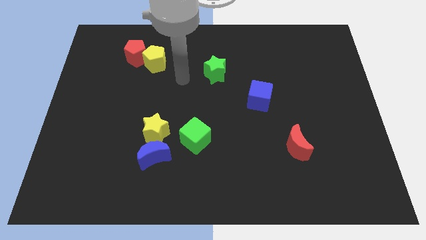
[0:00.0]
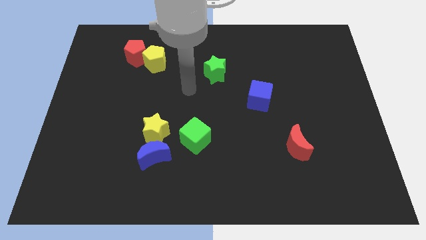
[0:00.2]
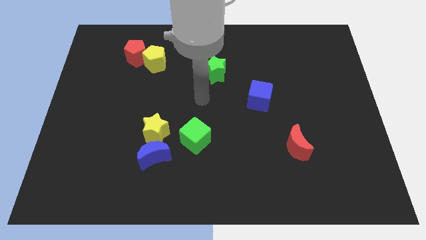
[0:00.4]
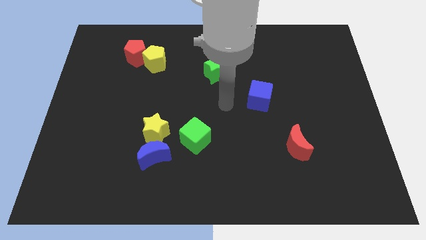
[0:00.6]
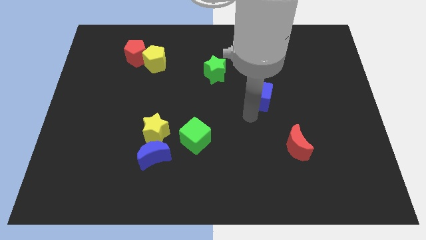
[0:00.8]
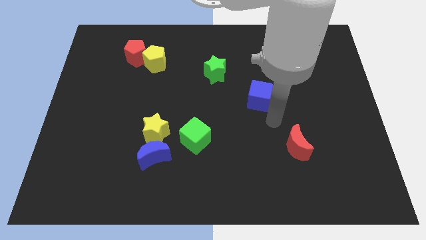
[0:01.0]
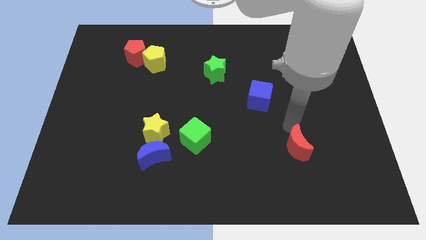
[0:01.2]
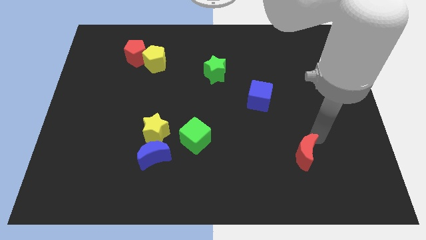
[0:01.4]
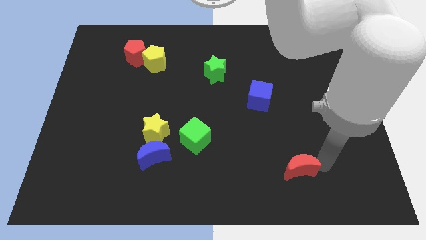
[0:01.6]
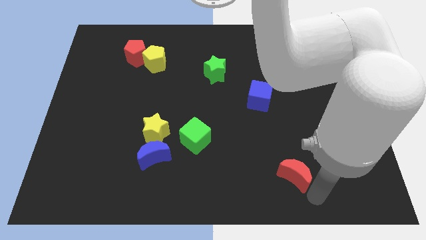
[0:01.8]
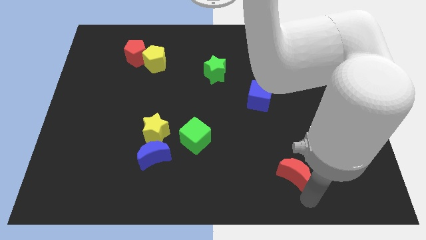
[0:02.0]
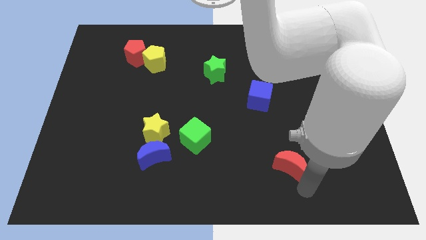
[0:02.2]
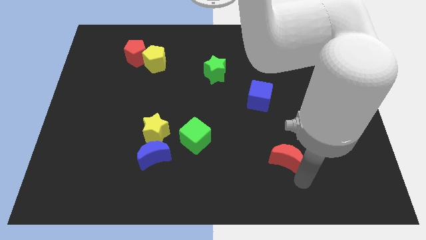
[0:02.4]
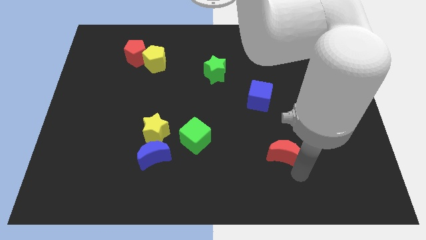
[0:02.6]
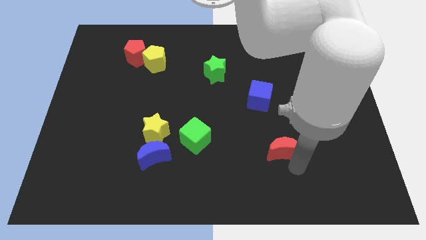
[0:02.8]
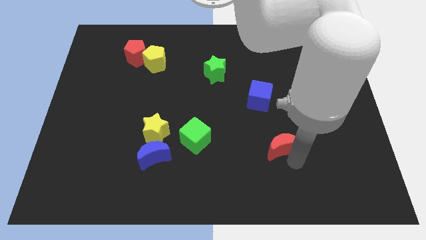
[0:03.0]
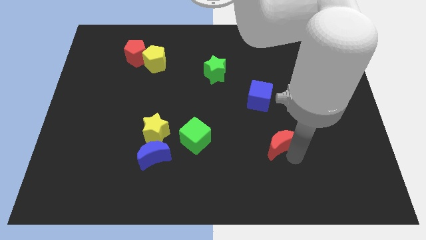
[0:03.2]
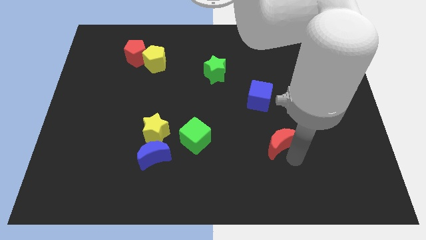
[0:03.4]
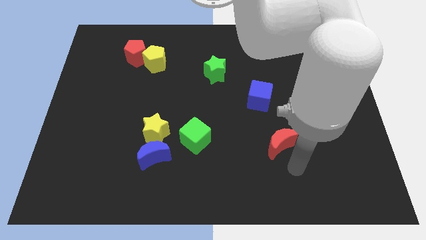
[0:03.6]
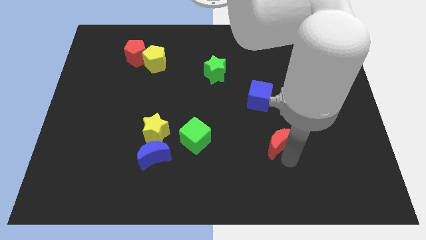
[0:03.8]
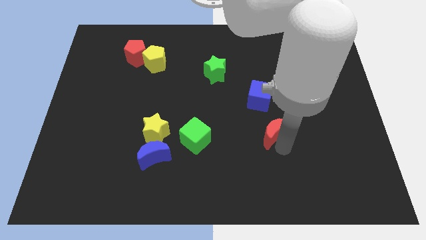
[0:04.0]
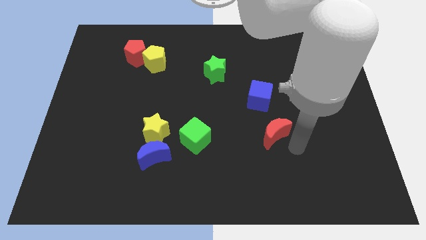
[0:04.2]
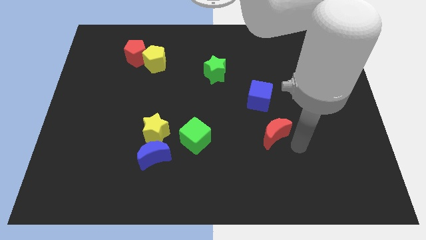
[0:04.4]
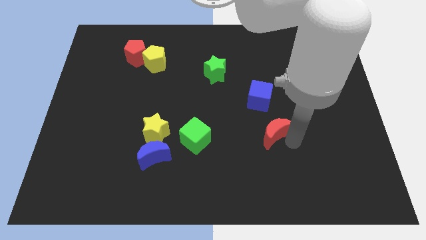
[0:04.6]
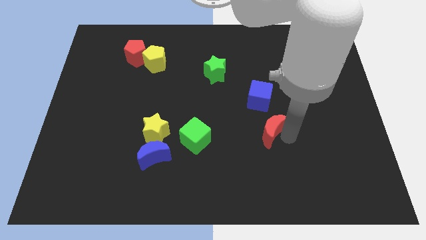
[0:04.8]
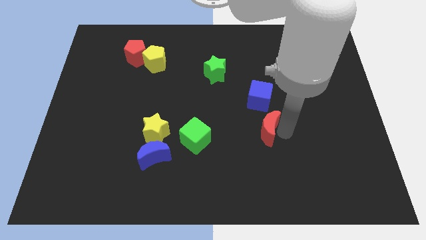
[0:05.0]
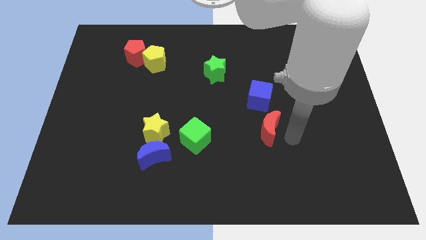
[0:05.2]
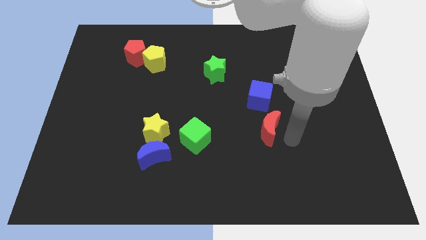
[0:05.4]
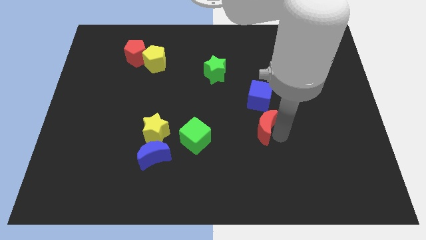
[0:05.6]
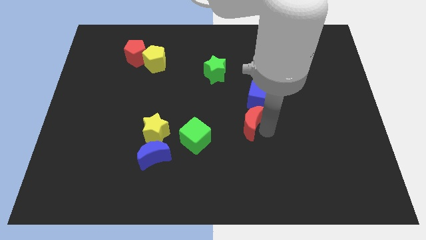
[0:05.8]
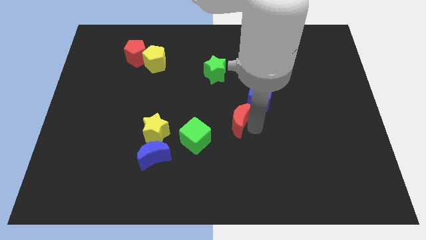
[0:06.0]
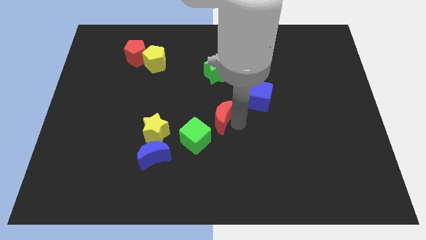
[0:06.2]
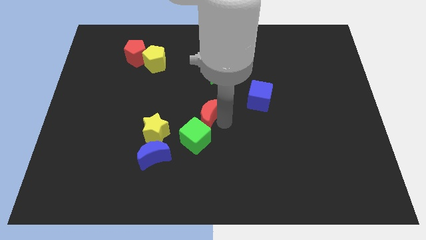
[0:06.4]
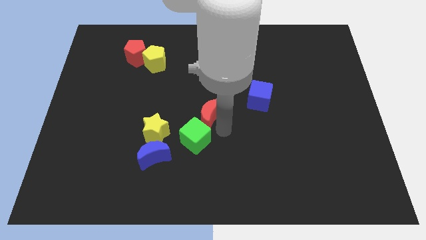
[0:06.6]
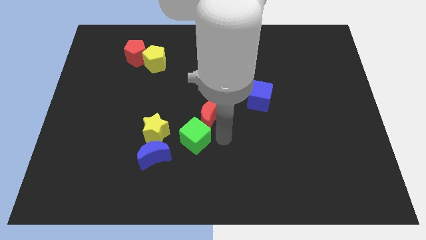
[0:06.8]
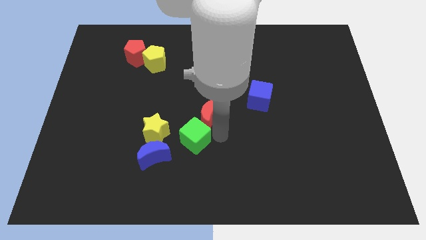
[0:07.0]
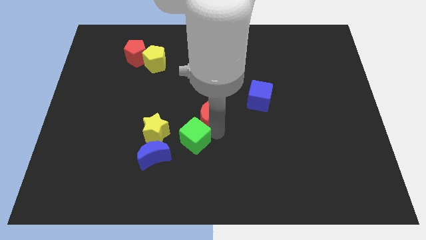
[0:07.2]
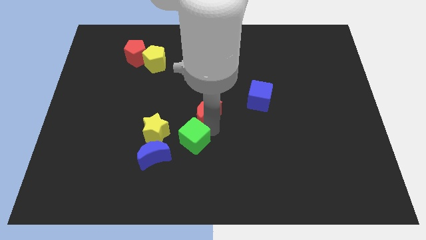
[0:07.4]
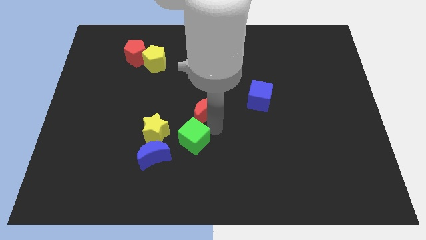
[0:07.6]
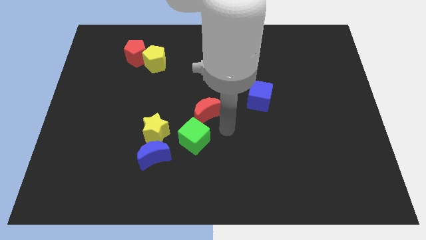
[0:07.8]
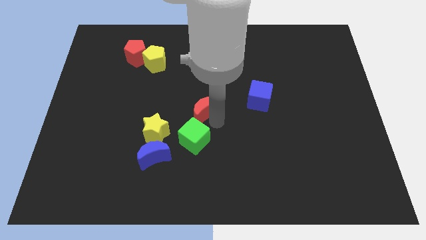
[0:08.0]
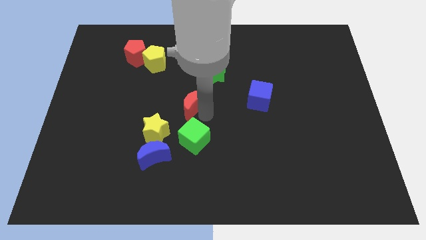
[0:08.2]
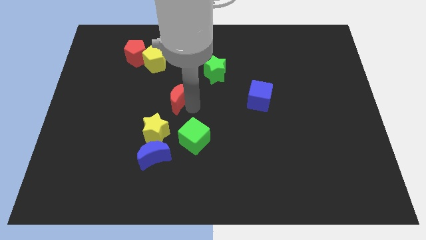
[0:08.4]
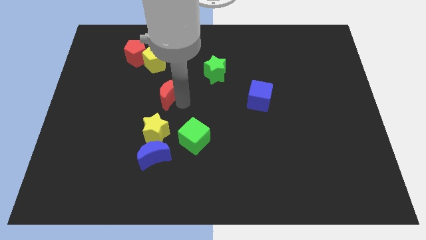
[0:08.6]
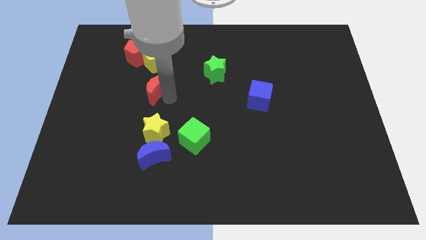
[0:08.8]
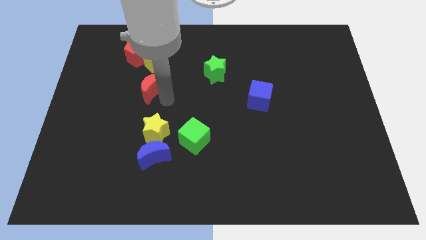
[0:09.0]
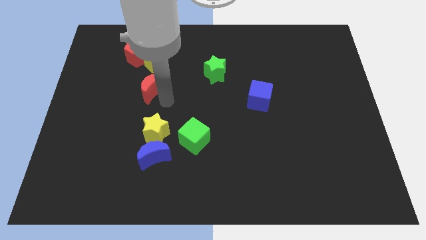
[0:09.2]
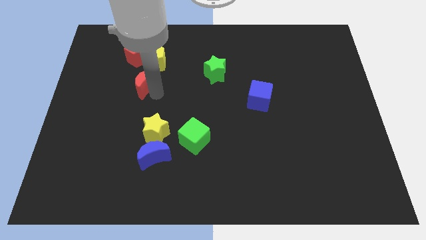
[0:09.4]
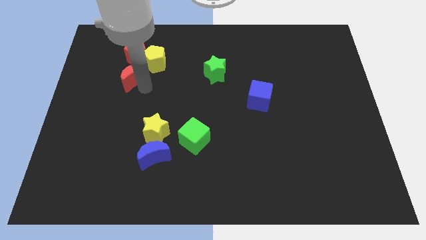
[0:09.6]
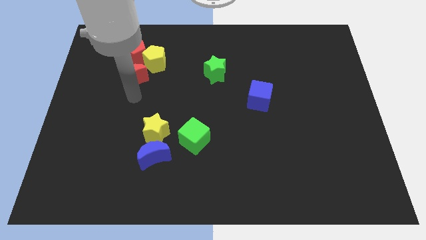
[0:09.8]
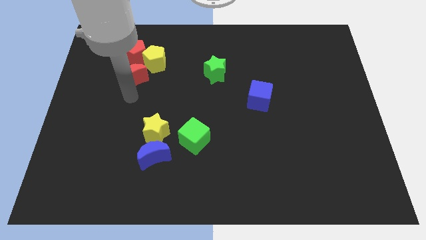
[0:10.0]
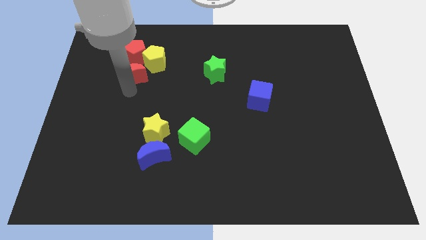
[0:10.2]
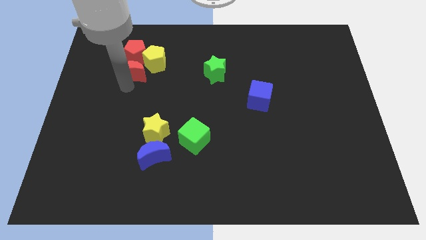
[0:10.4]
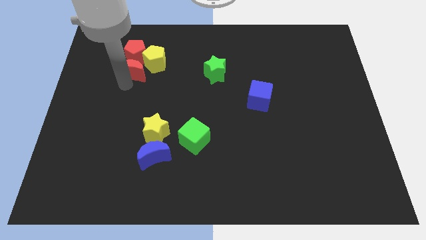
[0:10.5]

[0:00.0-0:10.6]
push the red moon next to the red pentagon

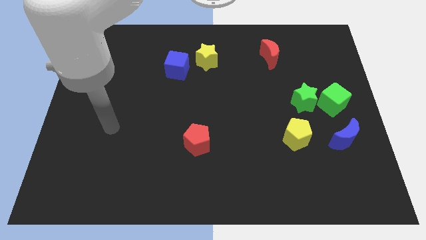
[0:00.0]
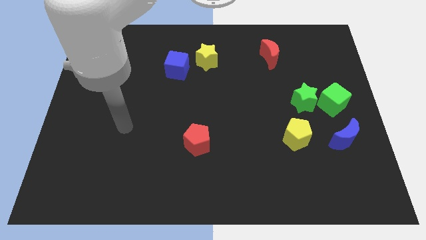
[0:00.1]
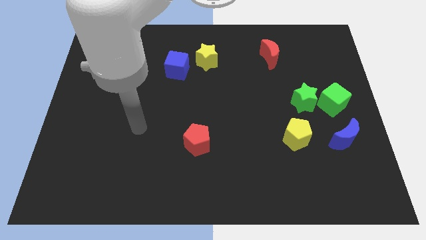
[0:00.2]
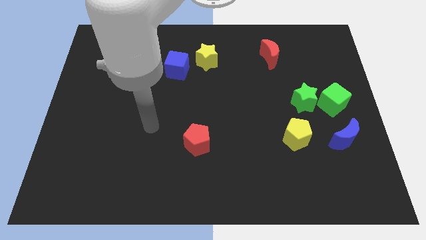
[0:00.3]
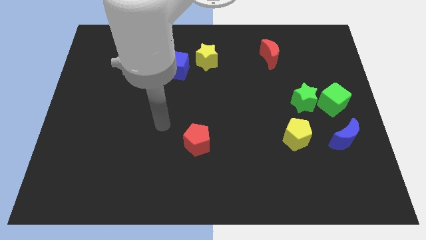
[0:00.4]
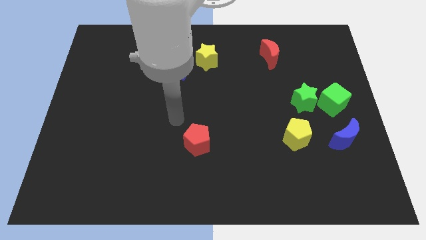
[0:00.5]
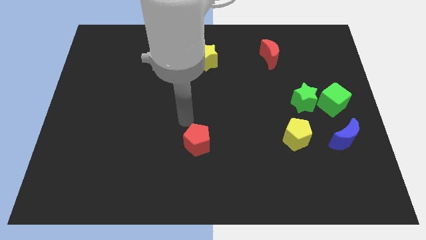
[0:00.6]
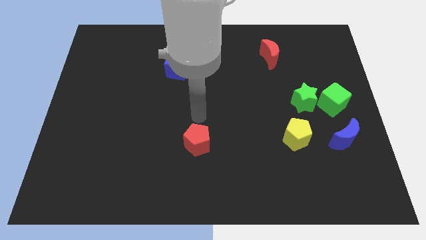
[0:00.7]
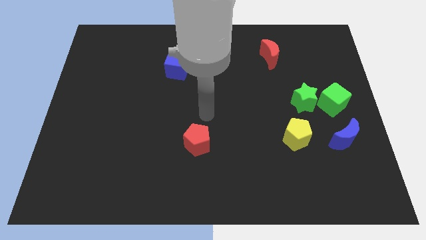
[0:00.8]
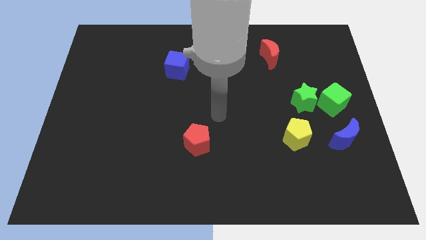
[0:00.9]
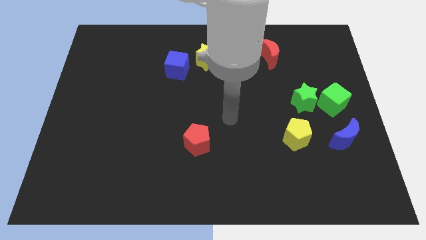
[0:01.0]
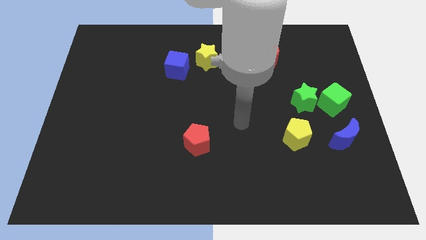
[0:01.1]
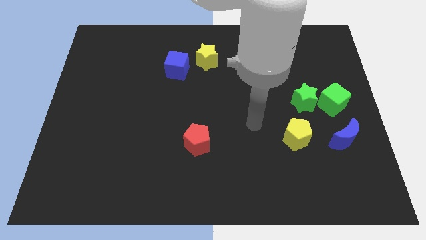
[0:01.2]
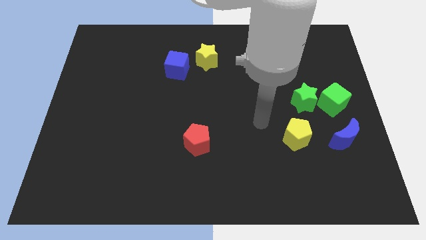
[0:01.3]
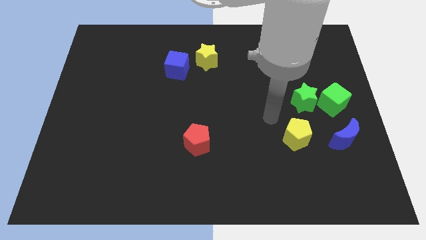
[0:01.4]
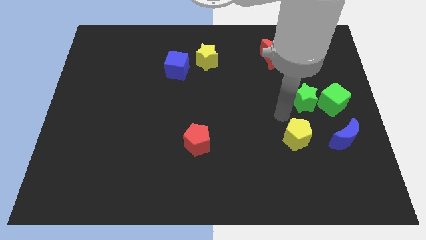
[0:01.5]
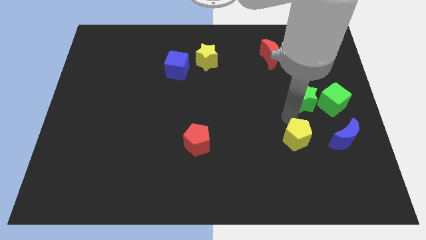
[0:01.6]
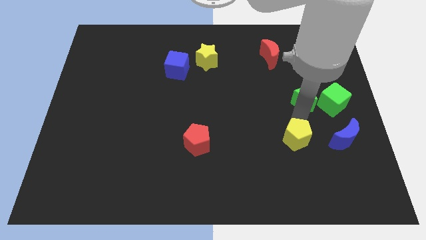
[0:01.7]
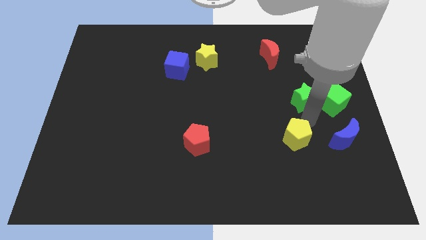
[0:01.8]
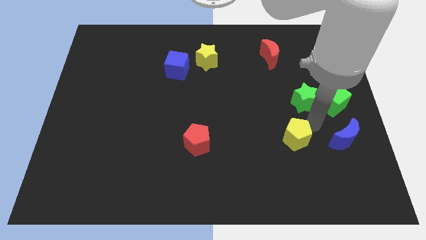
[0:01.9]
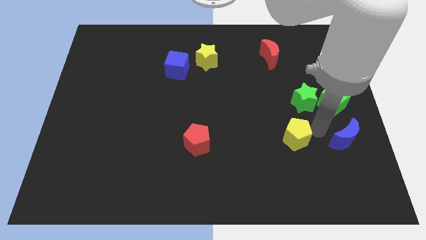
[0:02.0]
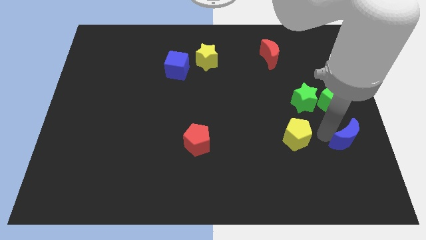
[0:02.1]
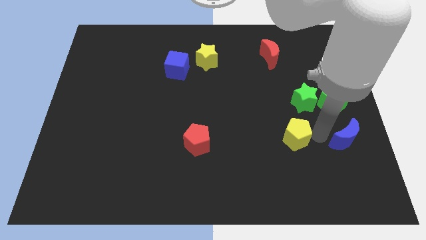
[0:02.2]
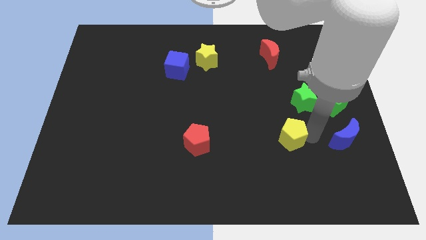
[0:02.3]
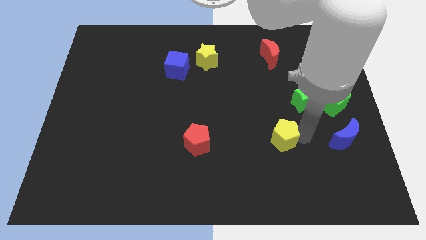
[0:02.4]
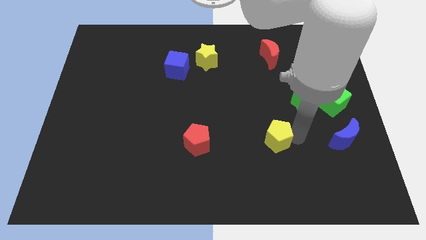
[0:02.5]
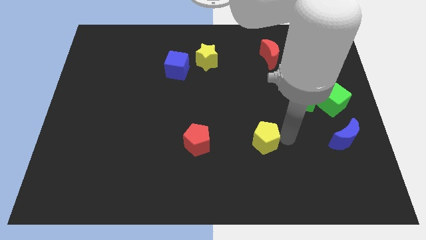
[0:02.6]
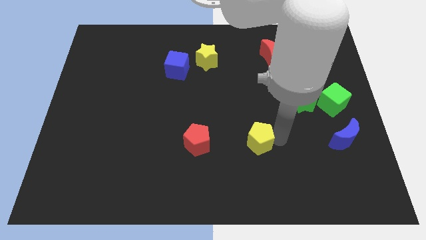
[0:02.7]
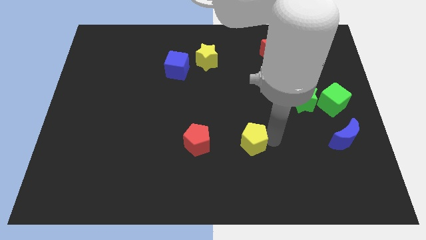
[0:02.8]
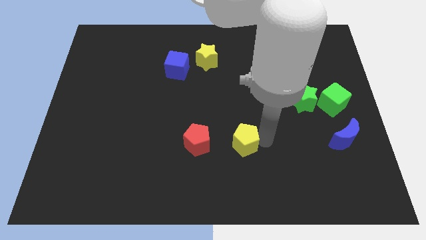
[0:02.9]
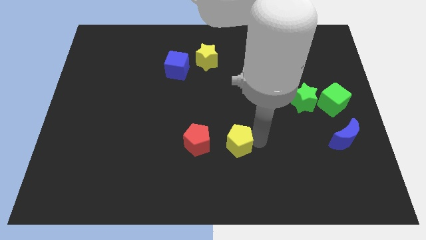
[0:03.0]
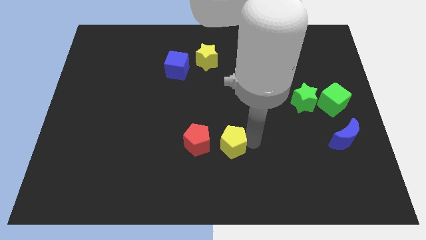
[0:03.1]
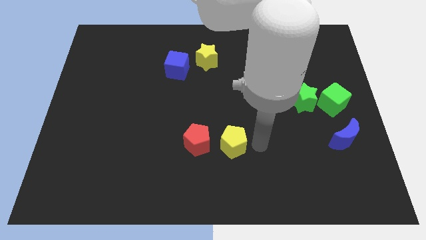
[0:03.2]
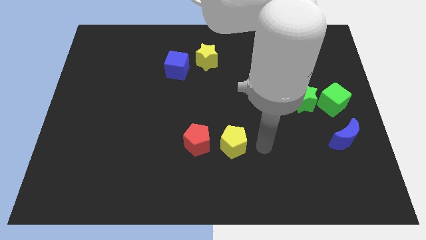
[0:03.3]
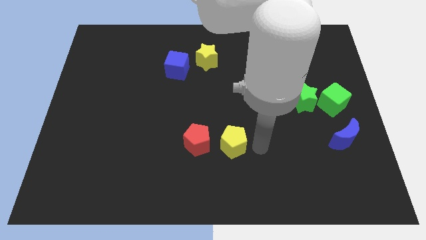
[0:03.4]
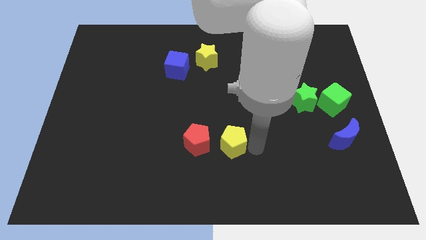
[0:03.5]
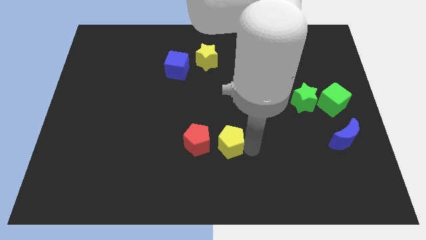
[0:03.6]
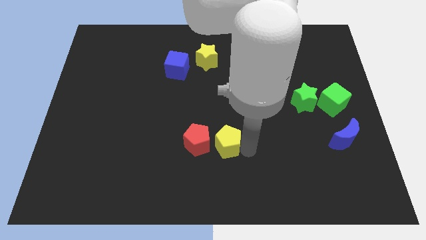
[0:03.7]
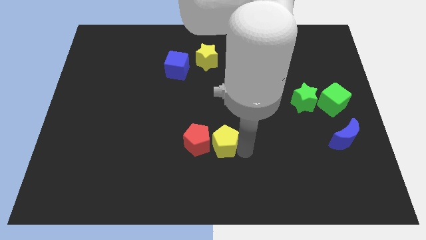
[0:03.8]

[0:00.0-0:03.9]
push the yellow pentagon close to the red pentagon
